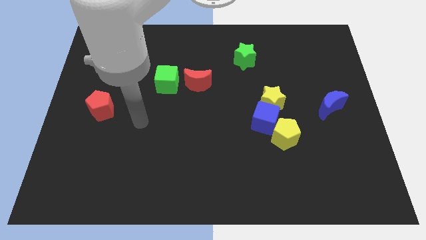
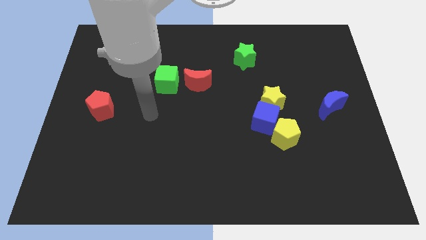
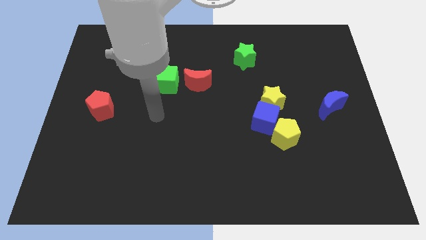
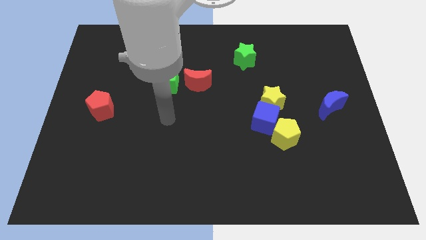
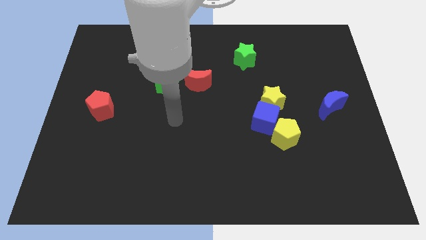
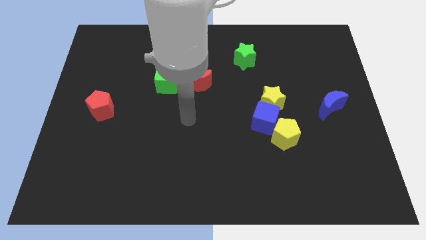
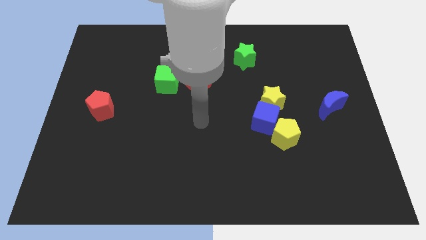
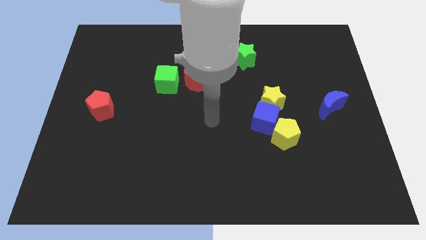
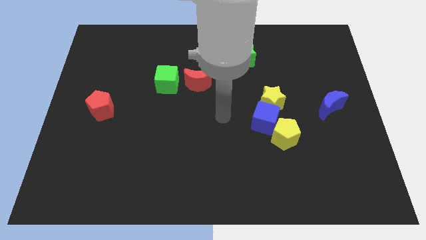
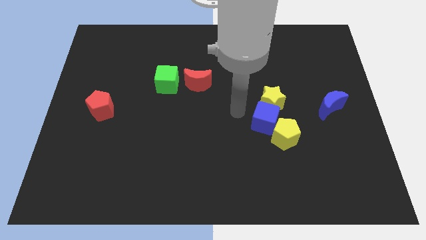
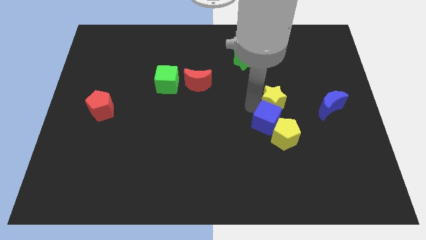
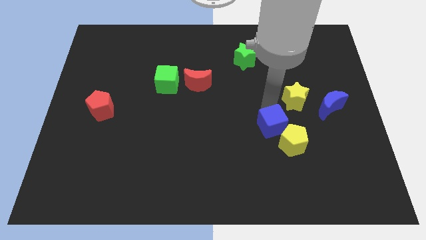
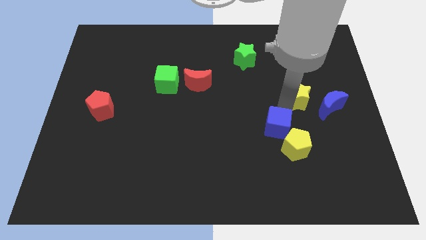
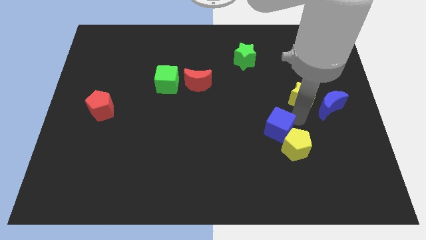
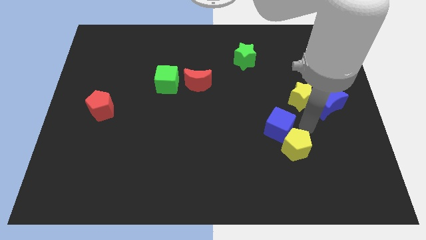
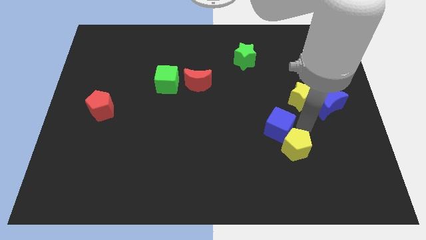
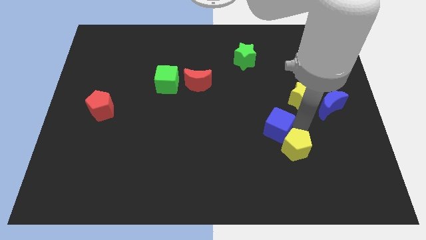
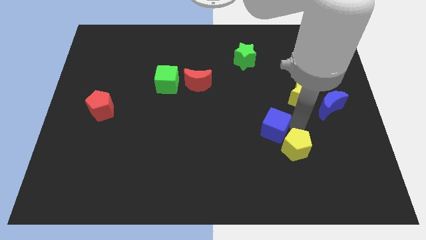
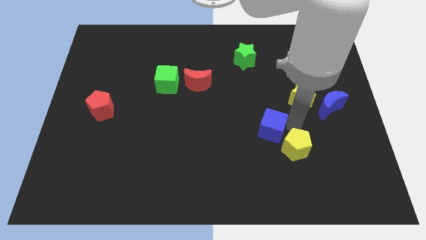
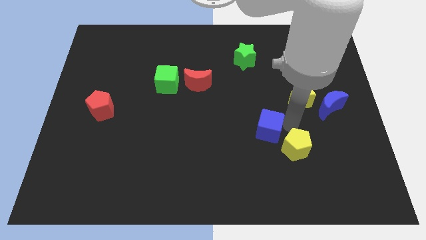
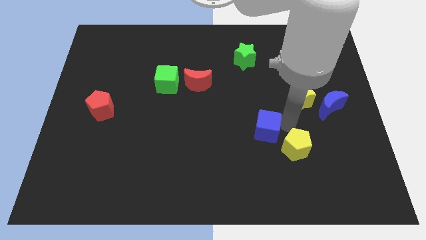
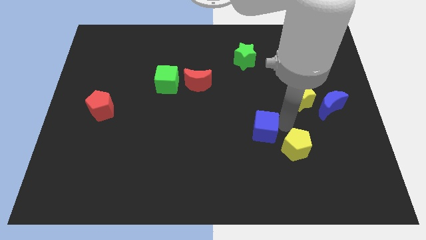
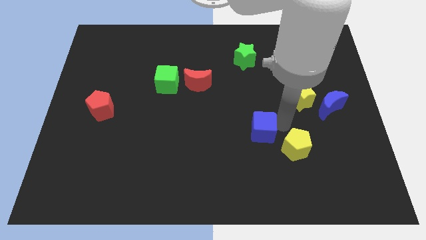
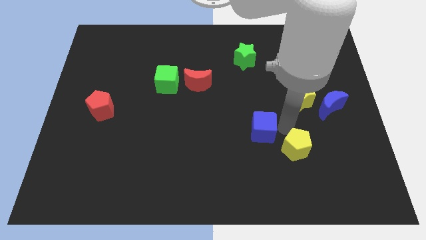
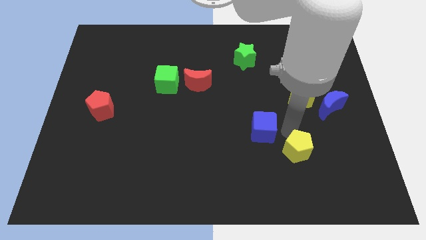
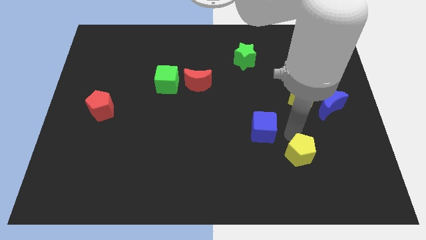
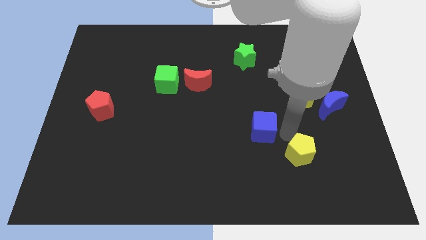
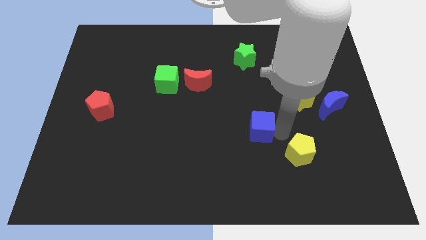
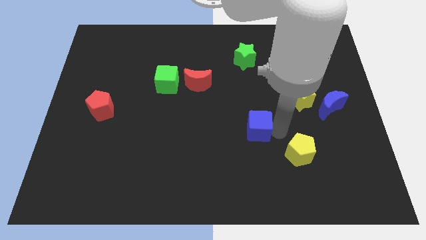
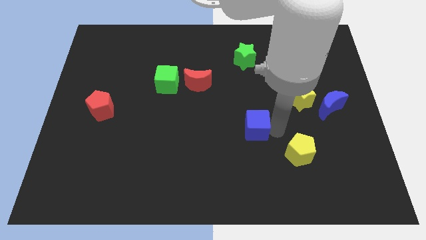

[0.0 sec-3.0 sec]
pull the blue cube apart from the yellow pentagon and yellow star

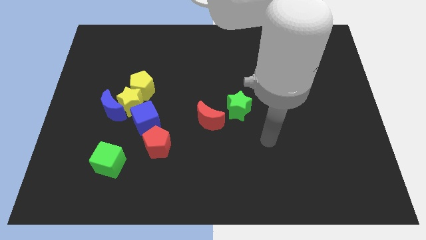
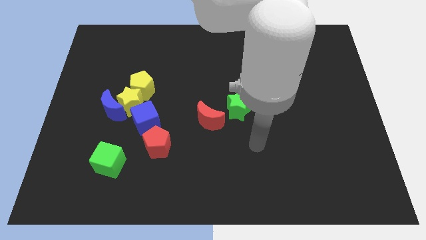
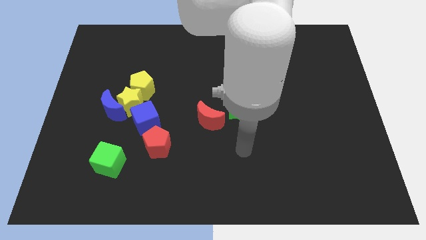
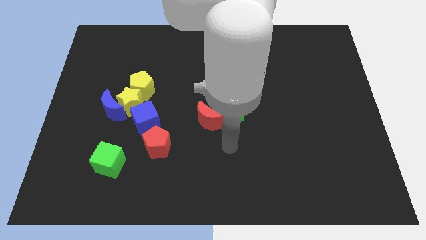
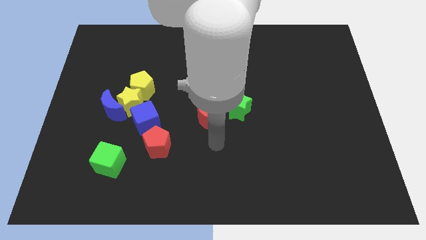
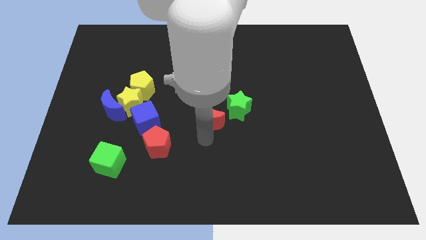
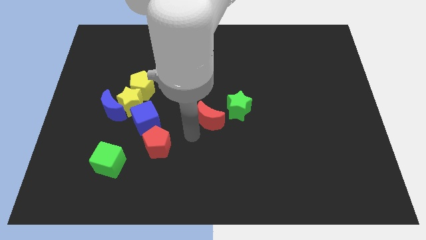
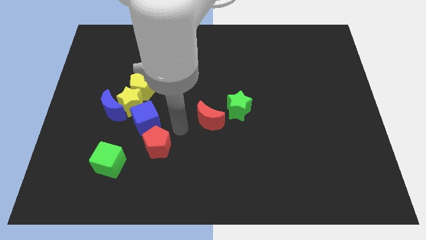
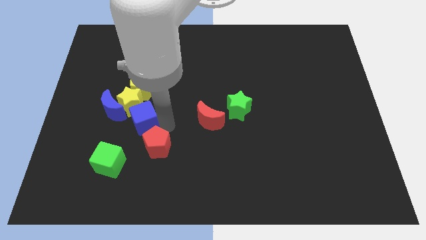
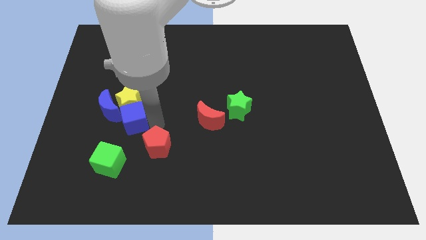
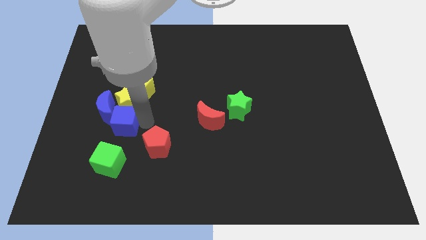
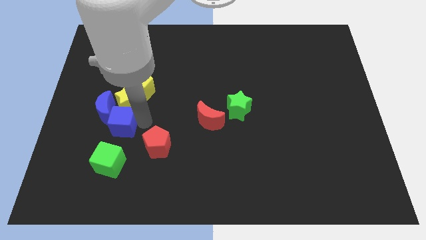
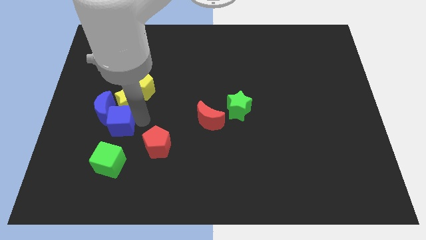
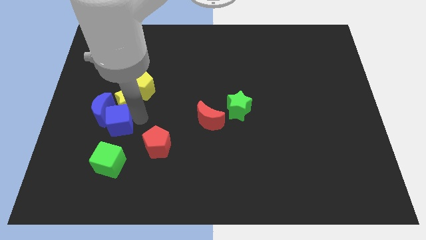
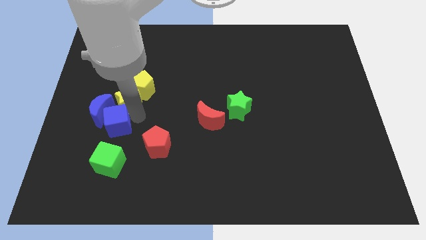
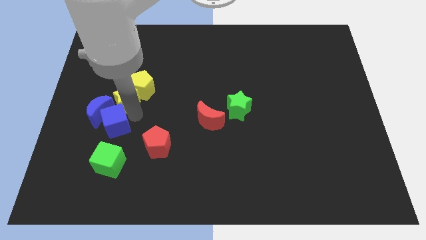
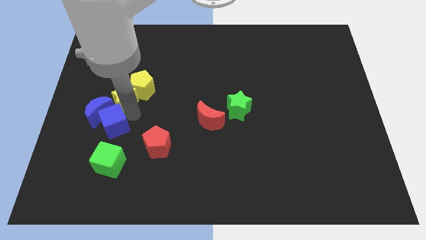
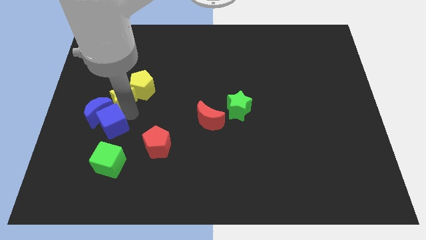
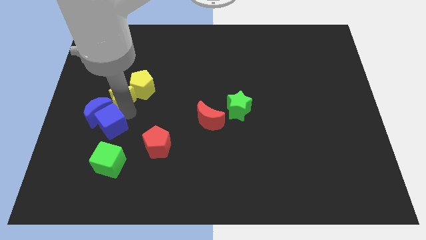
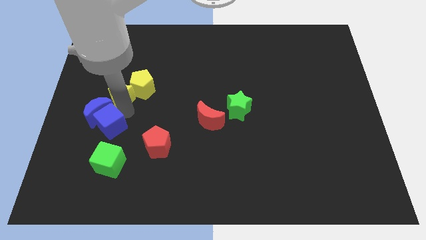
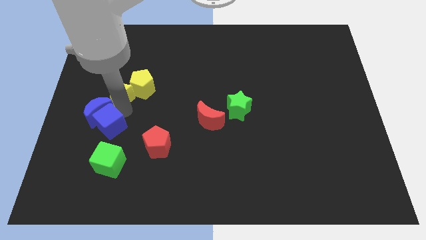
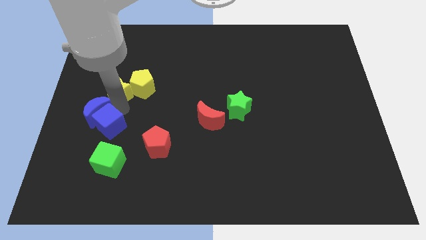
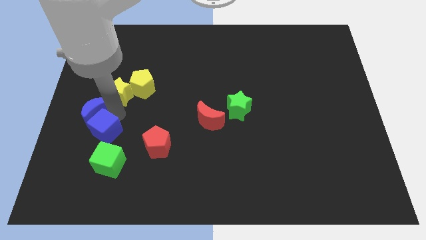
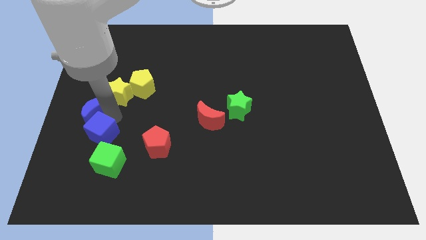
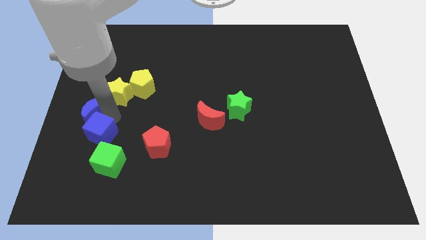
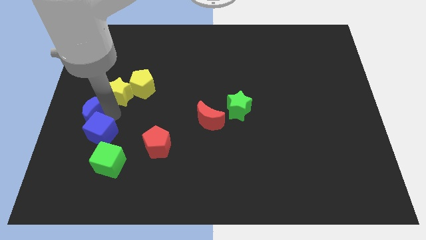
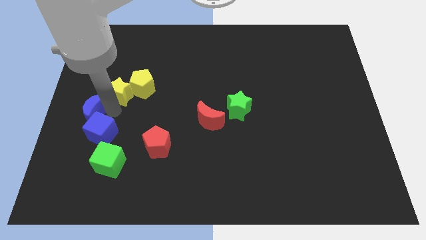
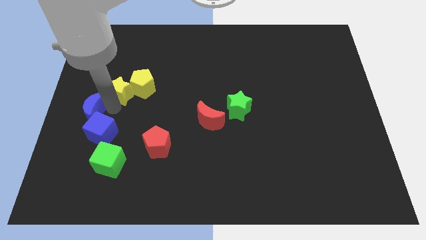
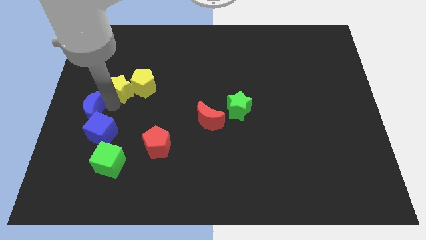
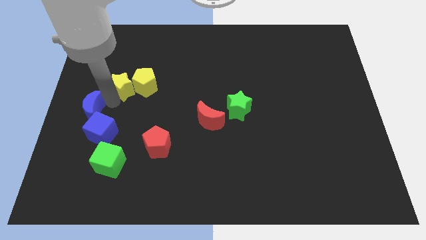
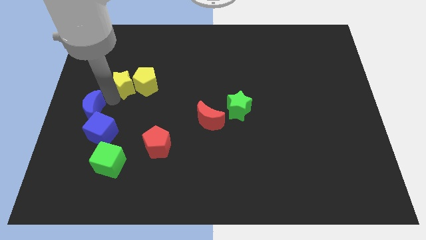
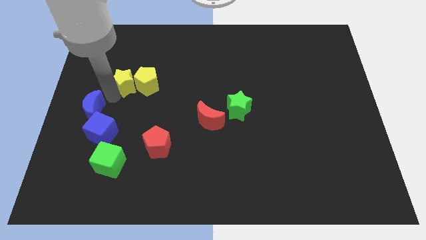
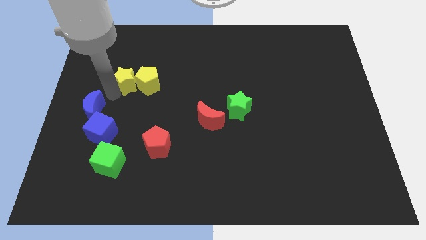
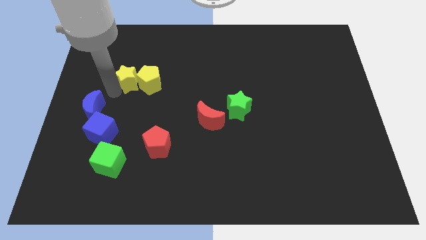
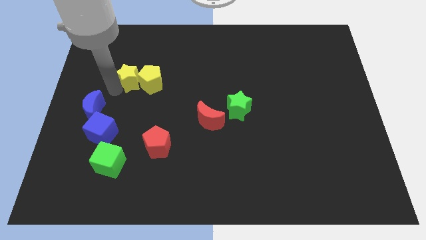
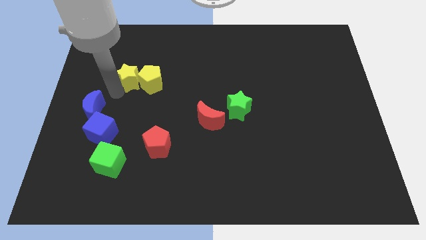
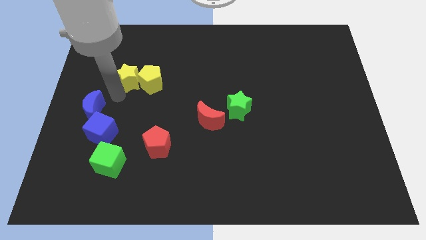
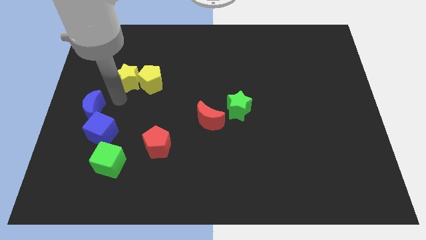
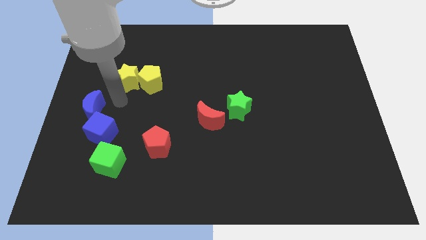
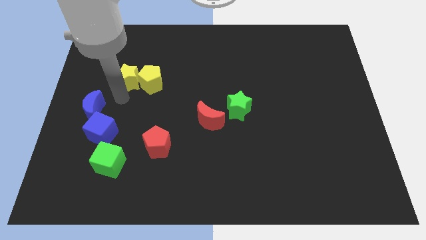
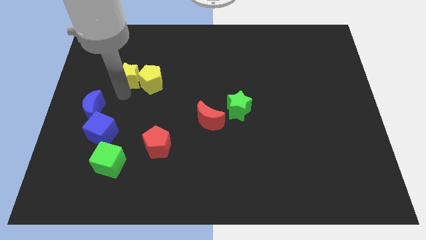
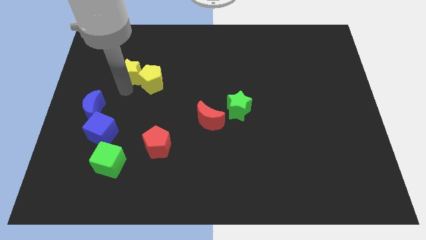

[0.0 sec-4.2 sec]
move the yellow star away from the group

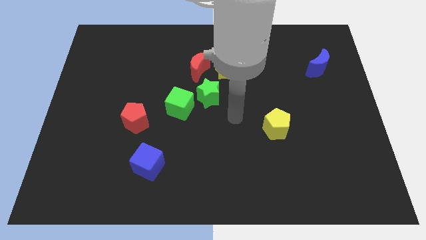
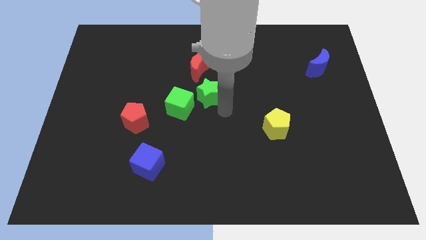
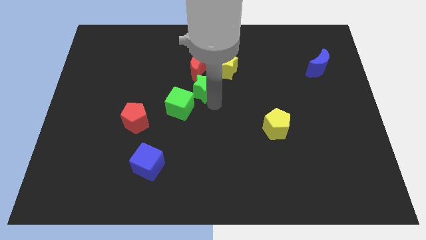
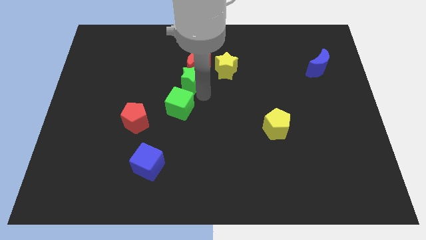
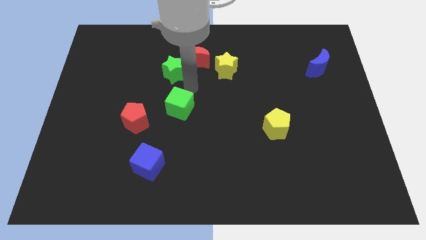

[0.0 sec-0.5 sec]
pull the green cube apart from the green star

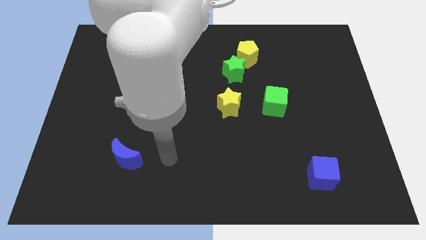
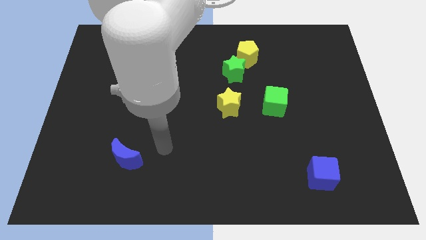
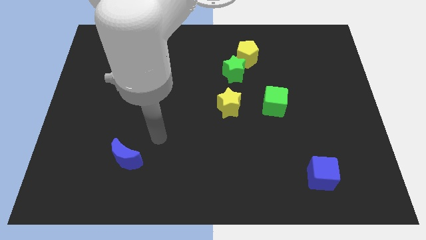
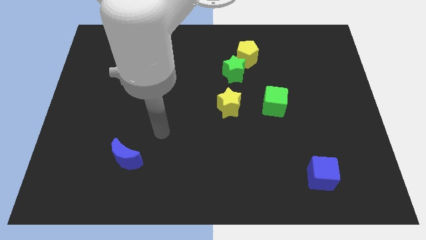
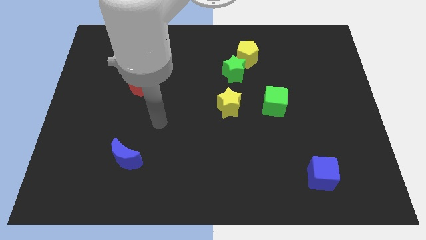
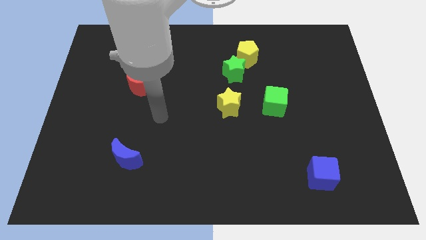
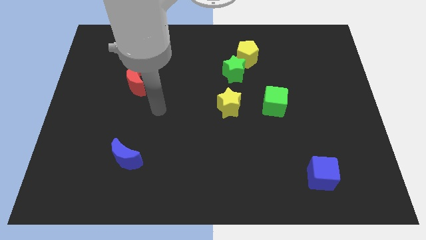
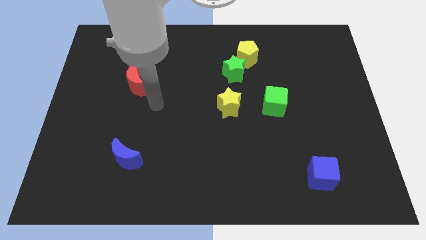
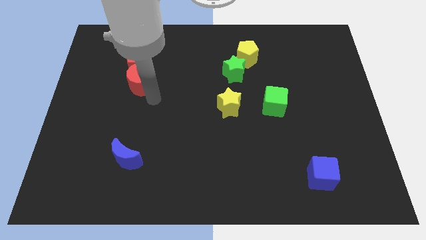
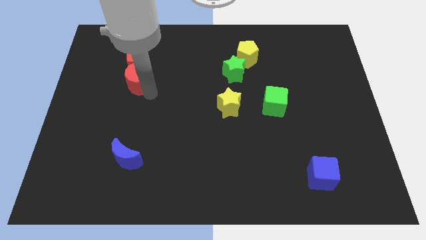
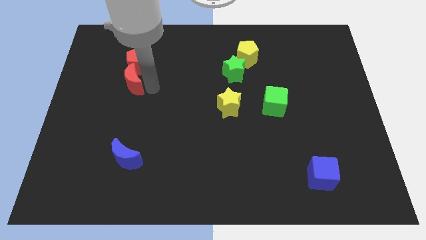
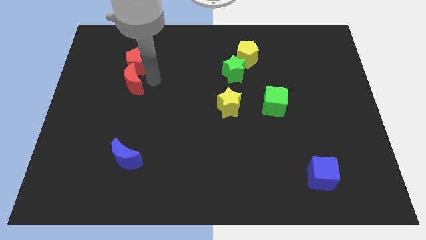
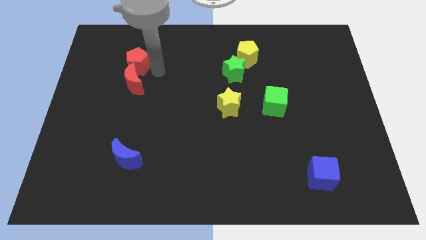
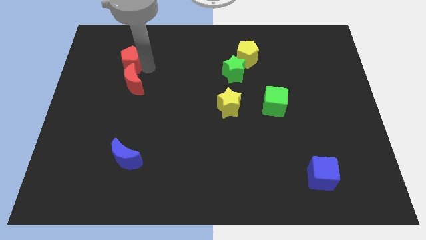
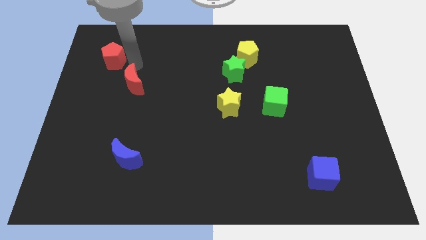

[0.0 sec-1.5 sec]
pull the red moon apart from the red pentagon

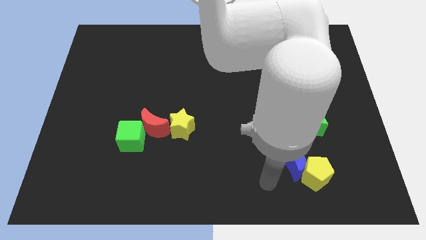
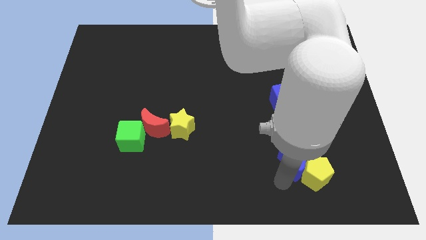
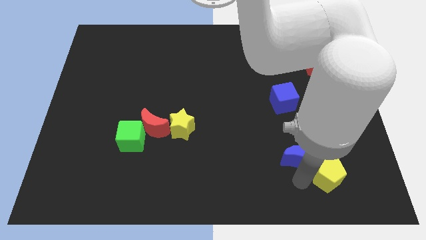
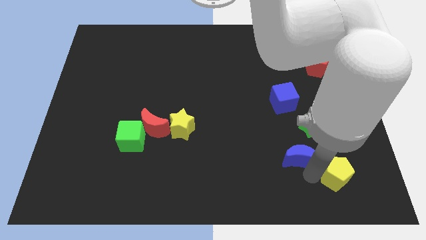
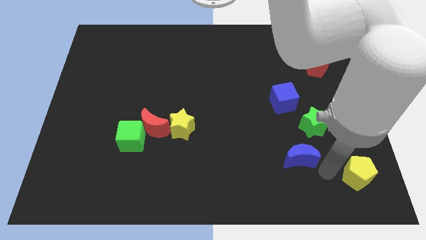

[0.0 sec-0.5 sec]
move the blue moon away from the yellow pentagon
